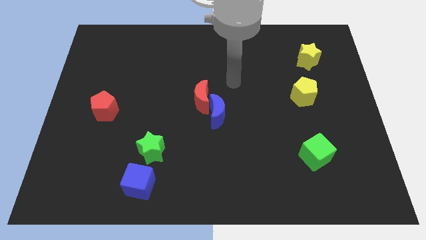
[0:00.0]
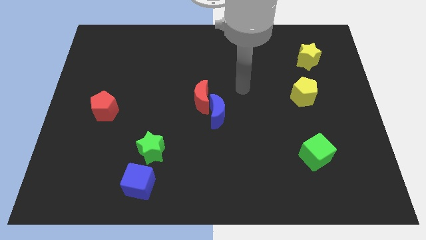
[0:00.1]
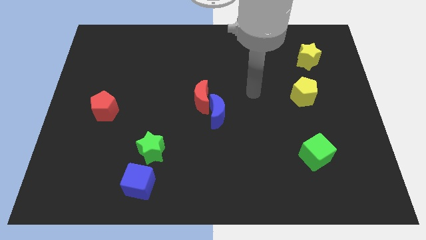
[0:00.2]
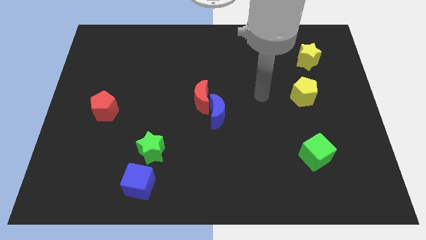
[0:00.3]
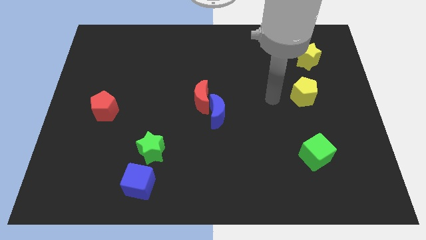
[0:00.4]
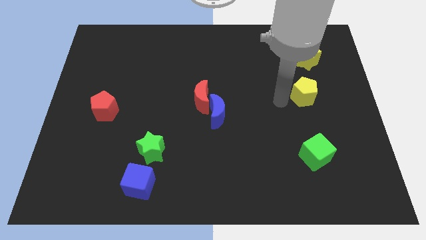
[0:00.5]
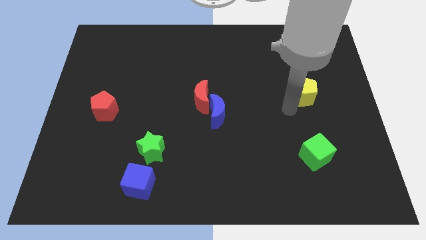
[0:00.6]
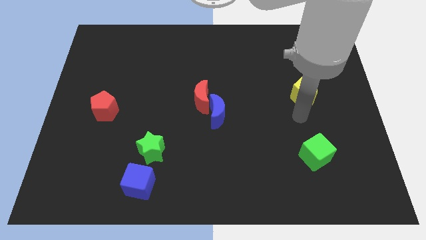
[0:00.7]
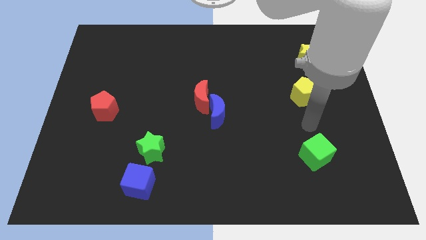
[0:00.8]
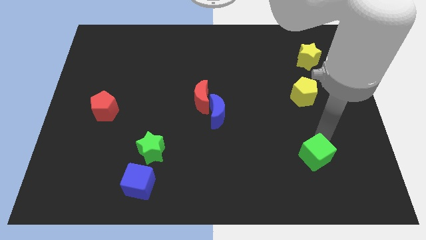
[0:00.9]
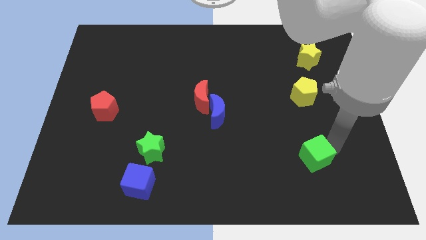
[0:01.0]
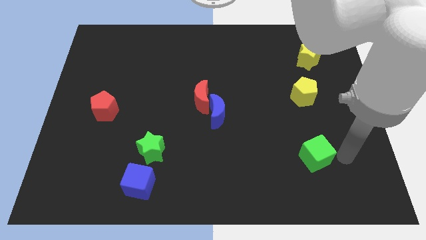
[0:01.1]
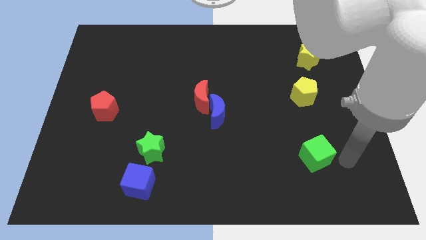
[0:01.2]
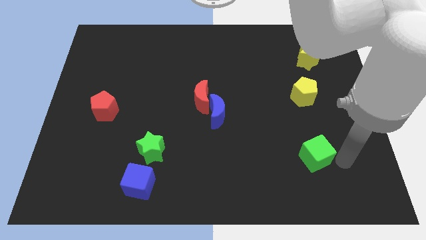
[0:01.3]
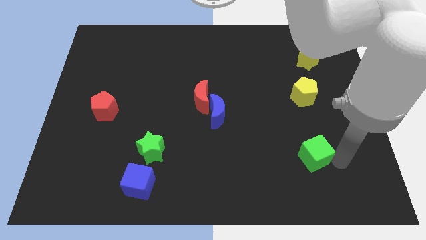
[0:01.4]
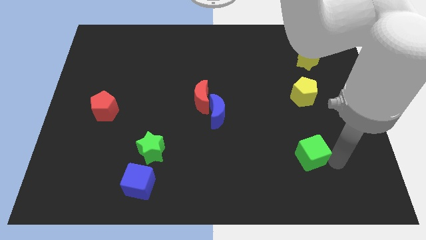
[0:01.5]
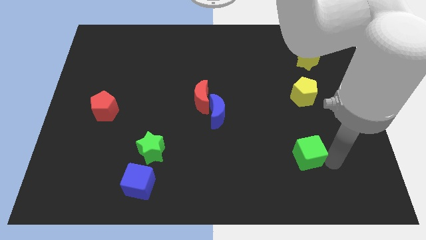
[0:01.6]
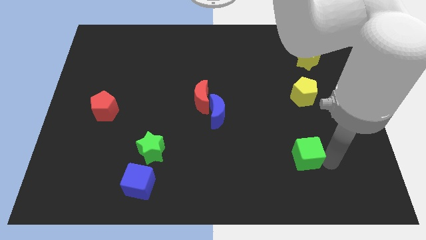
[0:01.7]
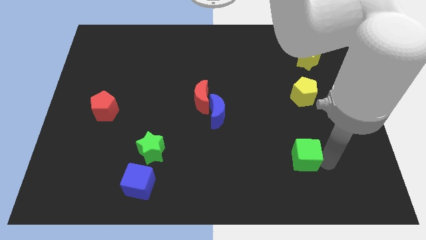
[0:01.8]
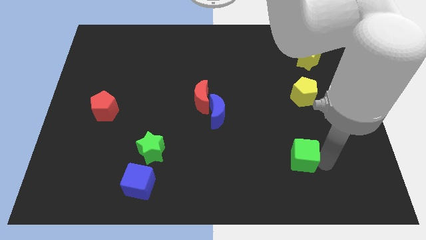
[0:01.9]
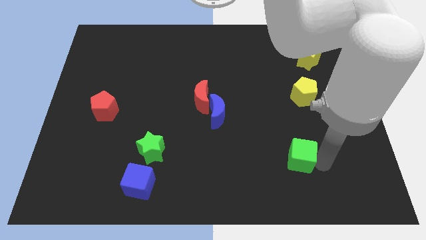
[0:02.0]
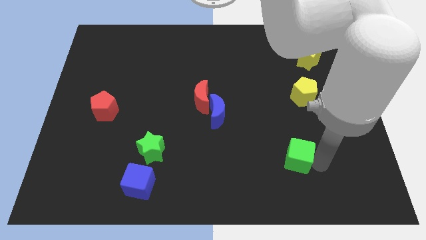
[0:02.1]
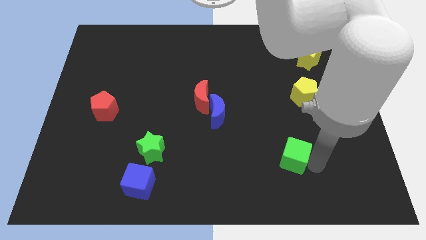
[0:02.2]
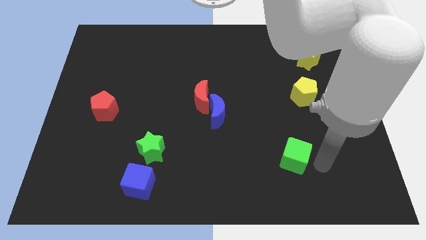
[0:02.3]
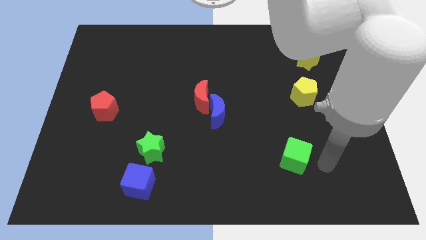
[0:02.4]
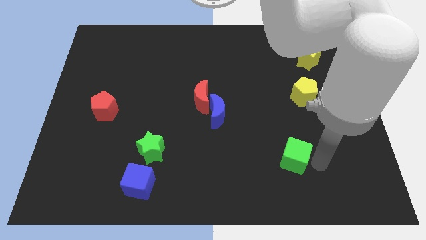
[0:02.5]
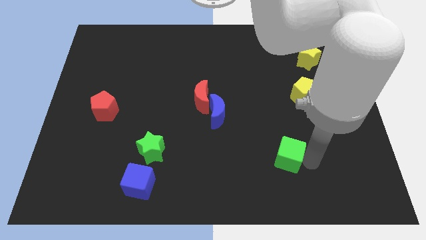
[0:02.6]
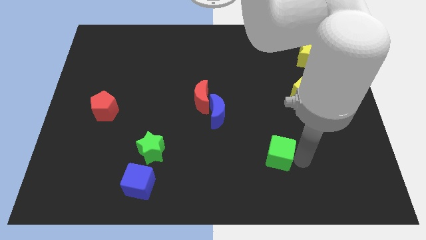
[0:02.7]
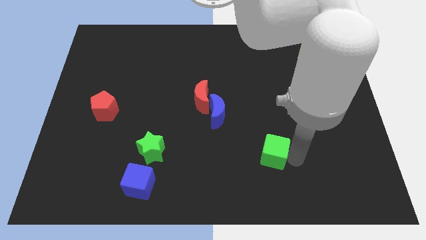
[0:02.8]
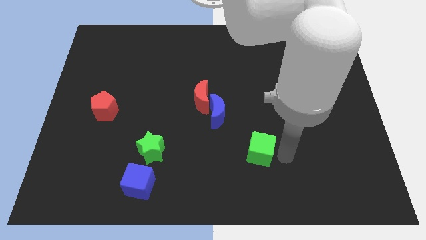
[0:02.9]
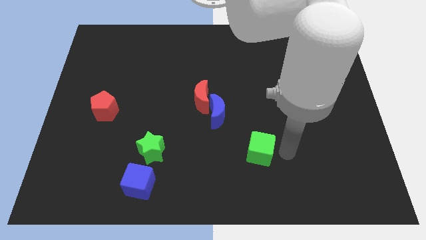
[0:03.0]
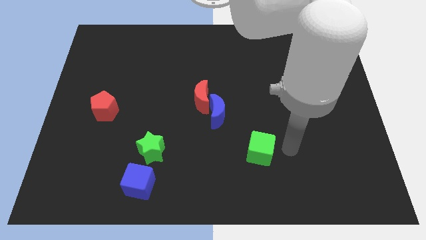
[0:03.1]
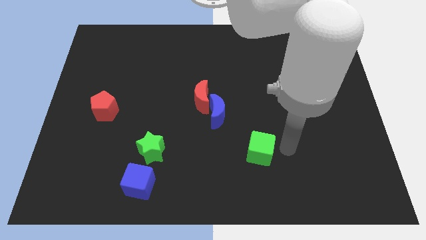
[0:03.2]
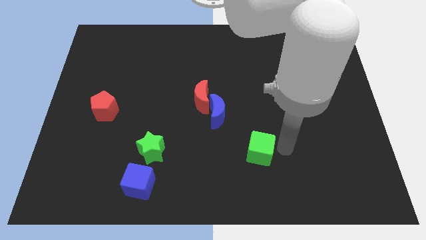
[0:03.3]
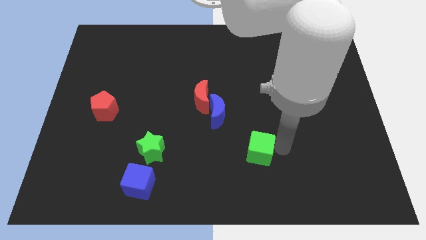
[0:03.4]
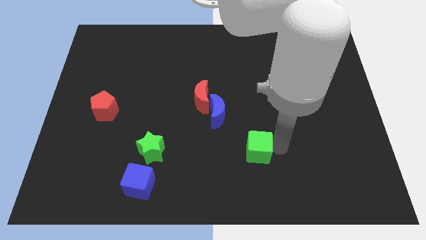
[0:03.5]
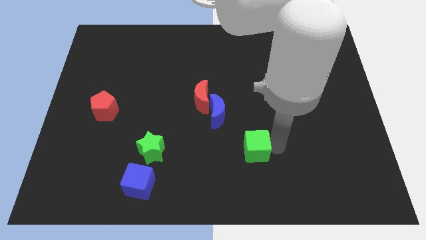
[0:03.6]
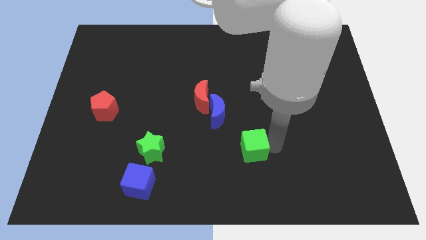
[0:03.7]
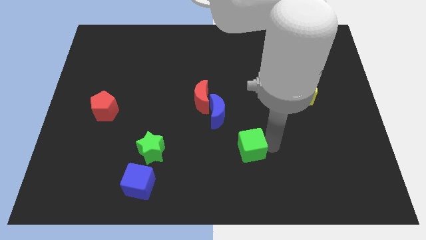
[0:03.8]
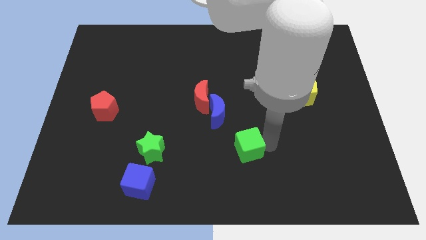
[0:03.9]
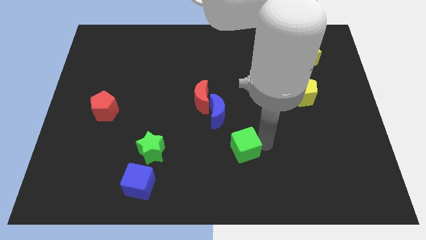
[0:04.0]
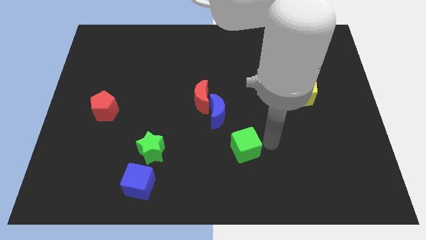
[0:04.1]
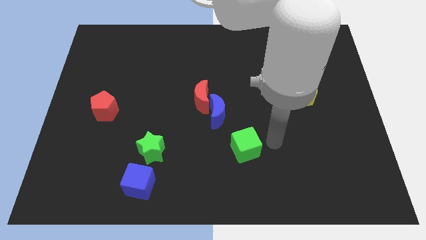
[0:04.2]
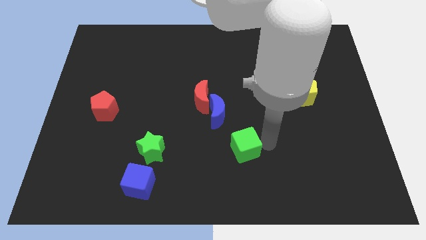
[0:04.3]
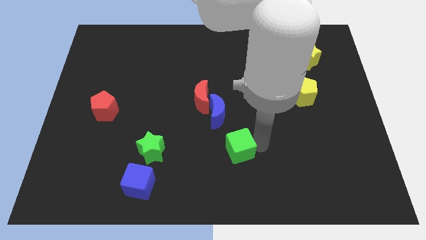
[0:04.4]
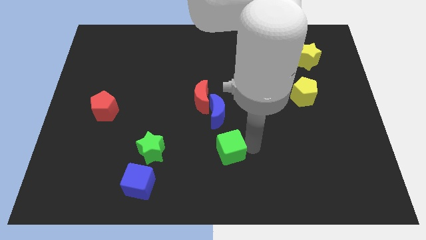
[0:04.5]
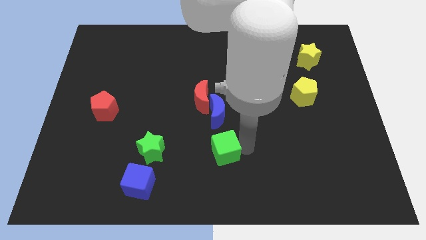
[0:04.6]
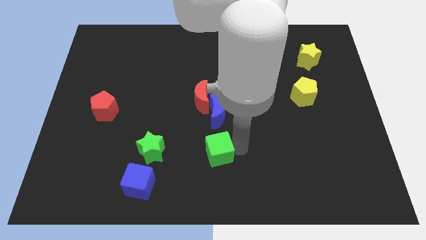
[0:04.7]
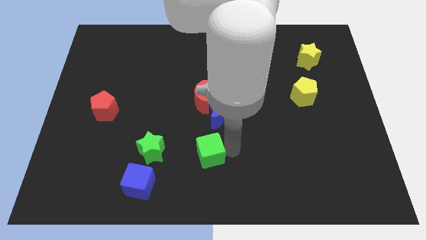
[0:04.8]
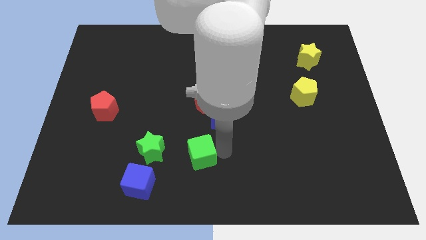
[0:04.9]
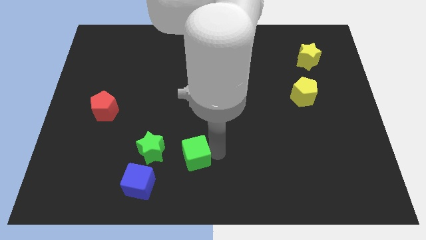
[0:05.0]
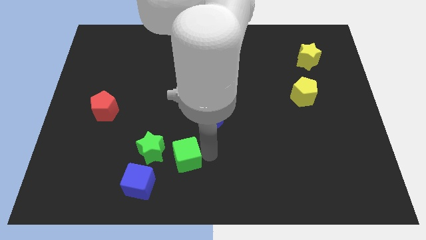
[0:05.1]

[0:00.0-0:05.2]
push the green cube to the top right side of the blue cube

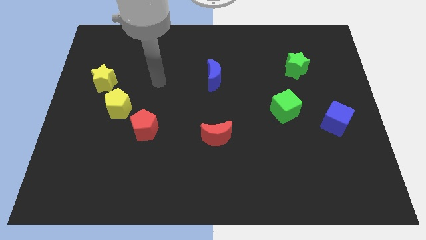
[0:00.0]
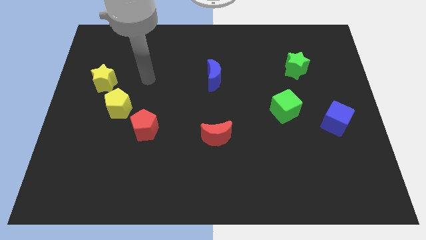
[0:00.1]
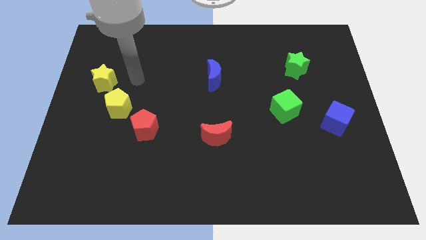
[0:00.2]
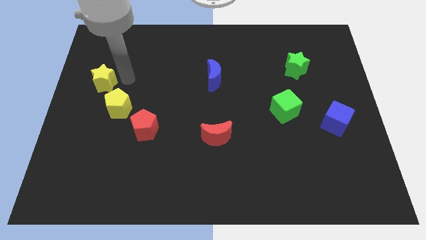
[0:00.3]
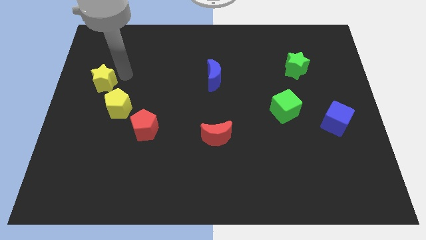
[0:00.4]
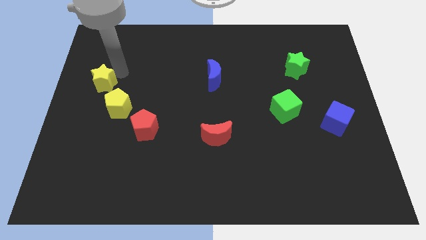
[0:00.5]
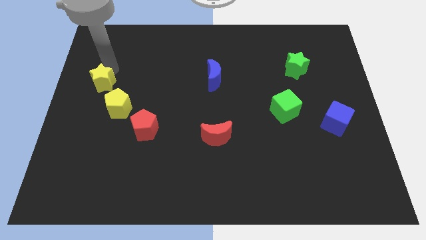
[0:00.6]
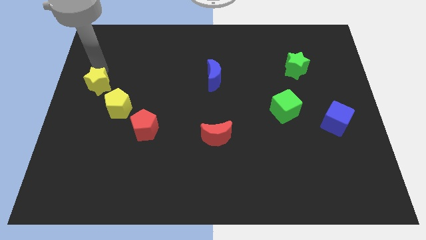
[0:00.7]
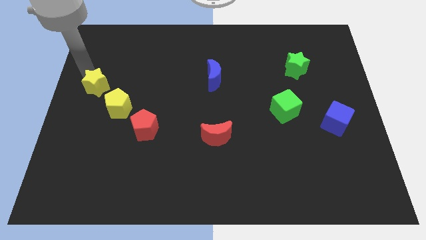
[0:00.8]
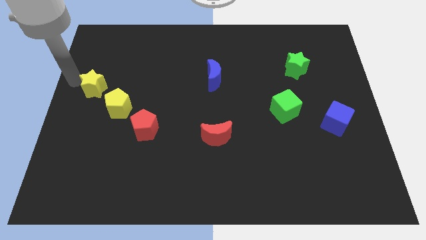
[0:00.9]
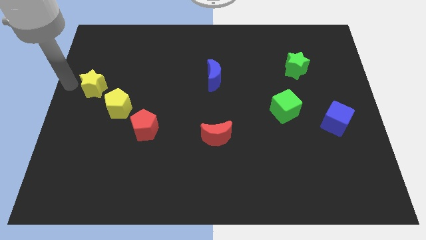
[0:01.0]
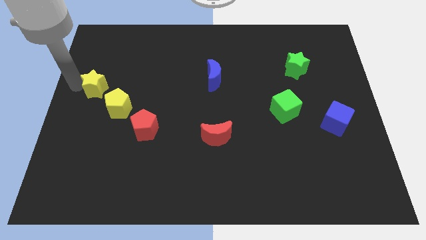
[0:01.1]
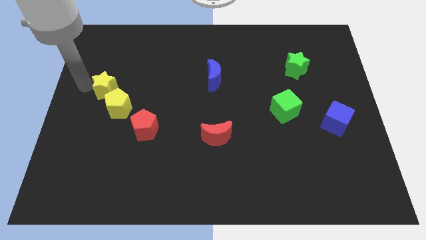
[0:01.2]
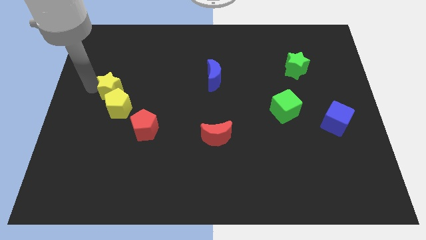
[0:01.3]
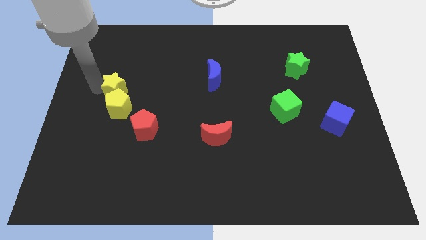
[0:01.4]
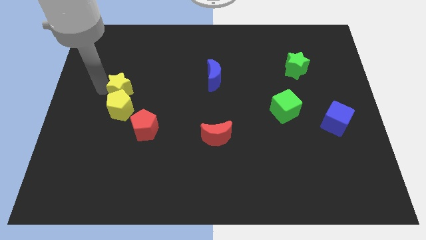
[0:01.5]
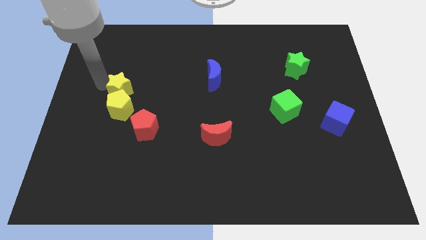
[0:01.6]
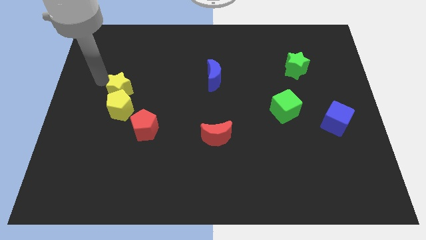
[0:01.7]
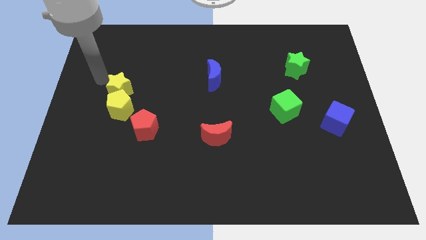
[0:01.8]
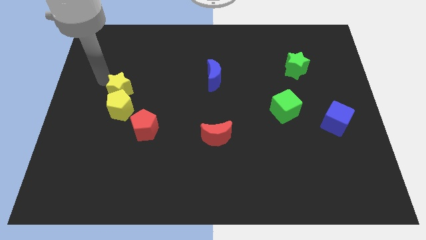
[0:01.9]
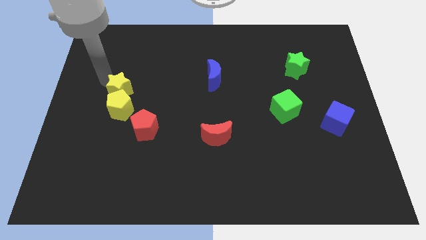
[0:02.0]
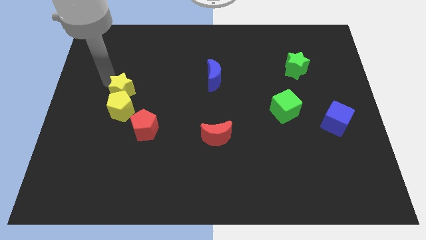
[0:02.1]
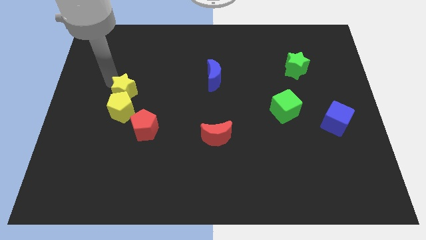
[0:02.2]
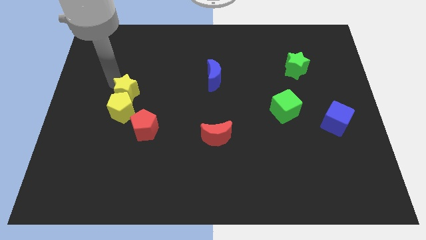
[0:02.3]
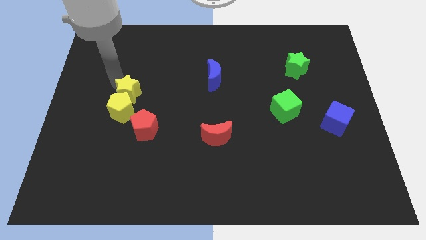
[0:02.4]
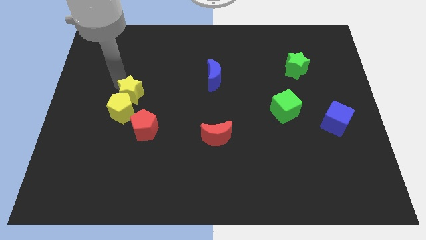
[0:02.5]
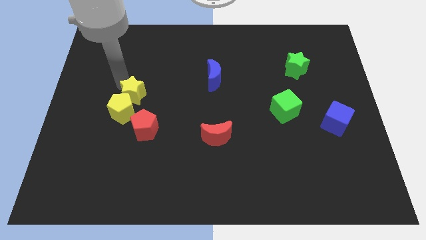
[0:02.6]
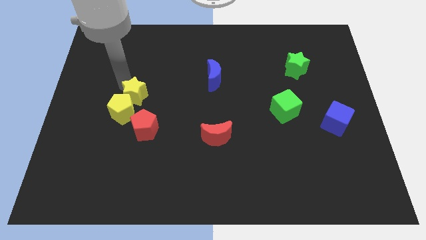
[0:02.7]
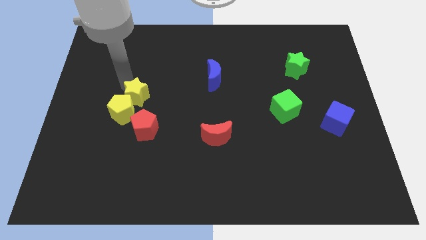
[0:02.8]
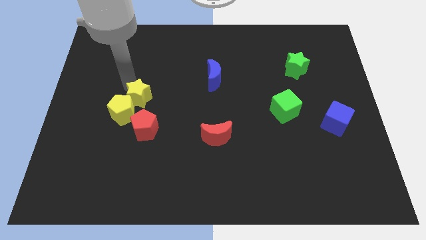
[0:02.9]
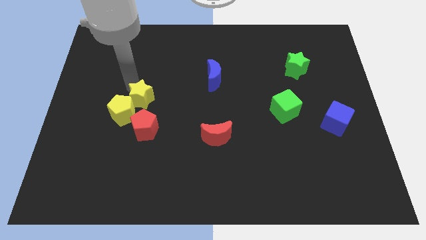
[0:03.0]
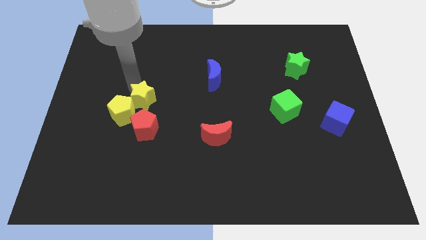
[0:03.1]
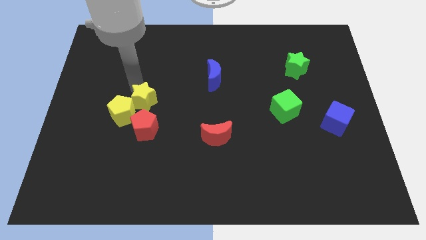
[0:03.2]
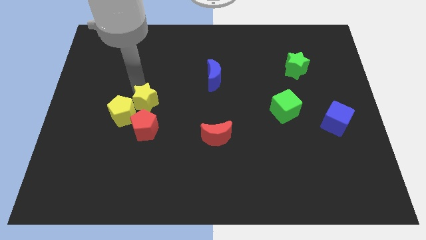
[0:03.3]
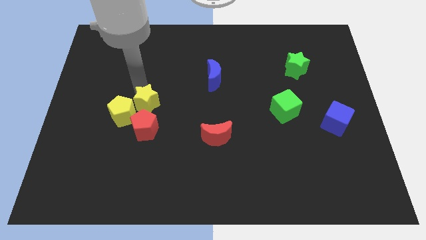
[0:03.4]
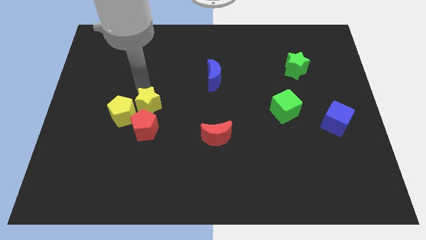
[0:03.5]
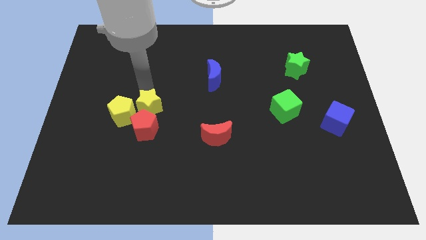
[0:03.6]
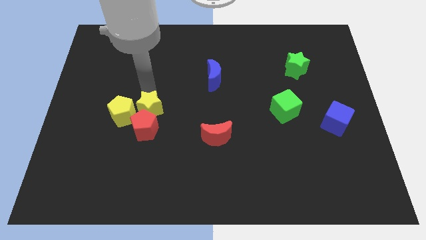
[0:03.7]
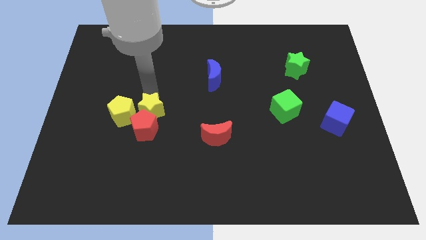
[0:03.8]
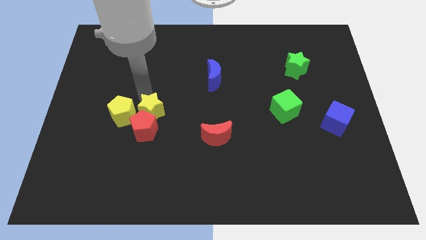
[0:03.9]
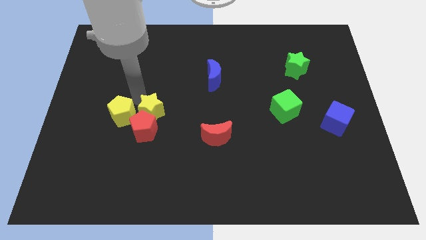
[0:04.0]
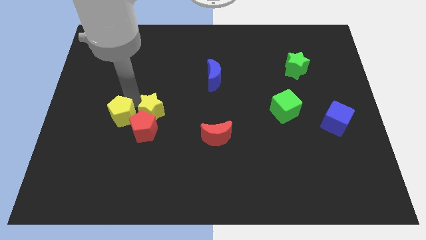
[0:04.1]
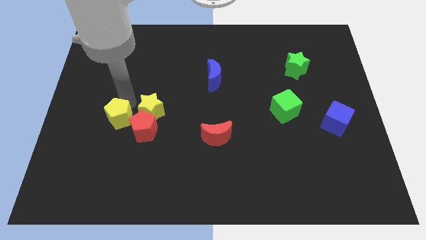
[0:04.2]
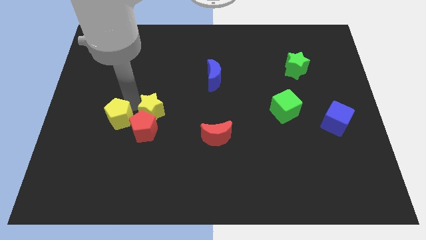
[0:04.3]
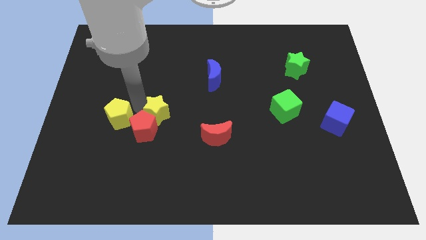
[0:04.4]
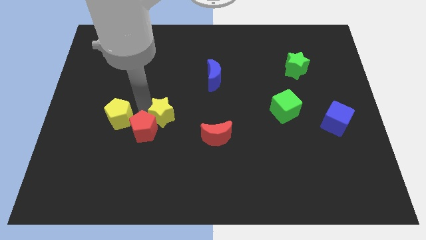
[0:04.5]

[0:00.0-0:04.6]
move the yellow star right of the red pentagon
